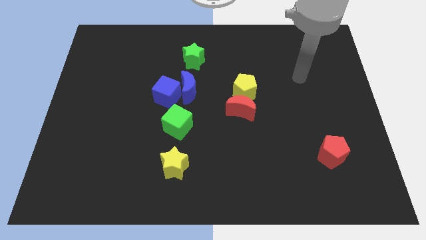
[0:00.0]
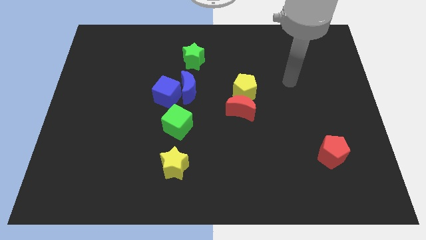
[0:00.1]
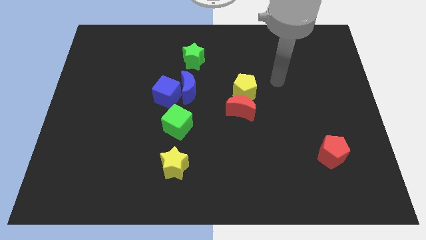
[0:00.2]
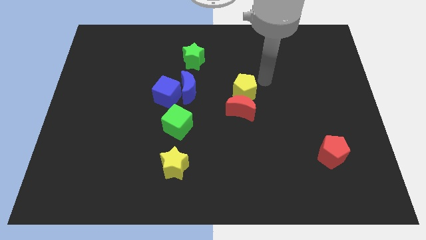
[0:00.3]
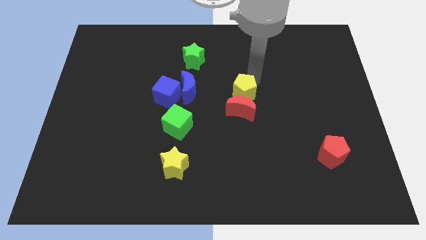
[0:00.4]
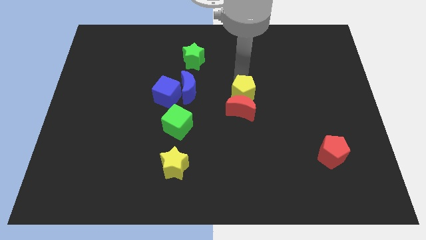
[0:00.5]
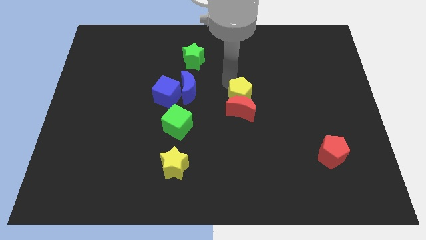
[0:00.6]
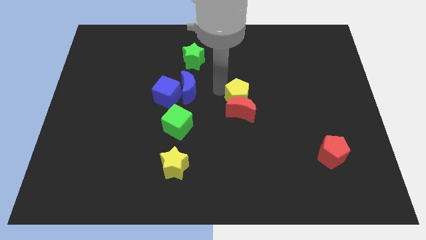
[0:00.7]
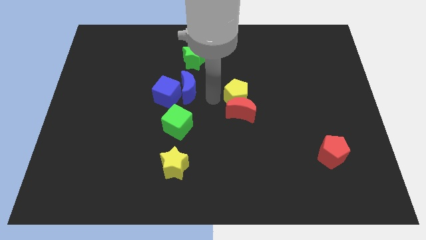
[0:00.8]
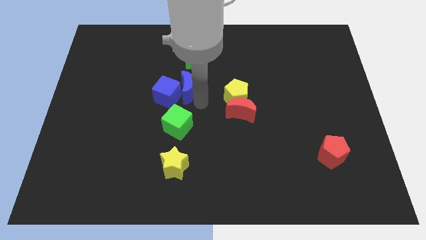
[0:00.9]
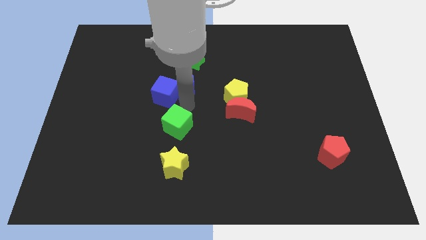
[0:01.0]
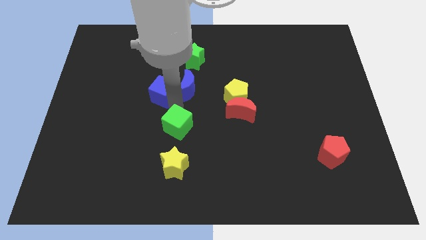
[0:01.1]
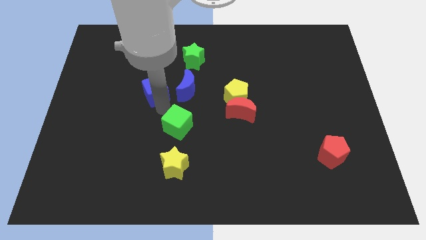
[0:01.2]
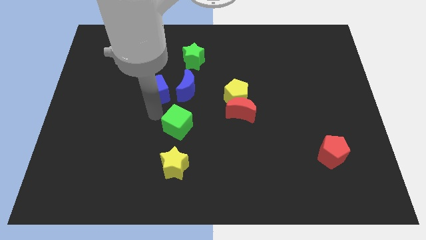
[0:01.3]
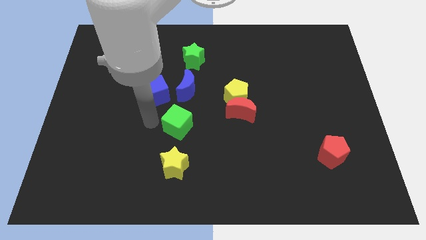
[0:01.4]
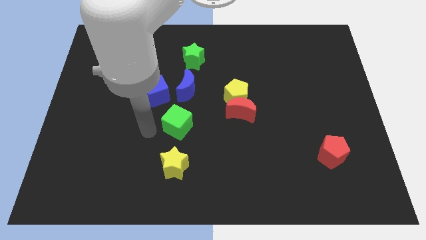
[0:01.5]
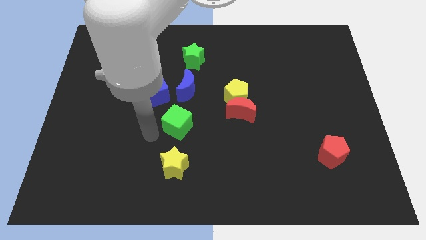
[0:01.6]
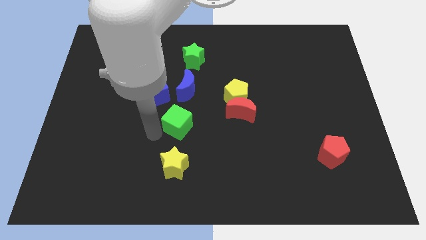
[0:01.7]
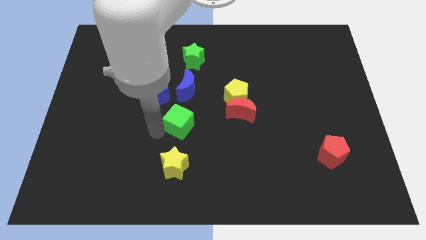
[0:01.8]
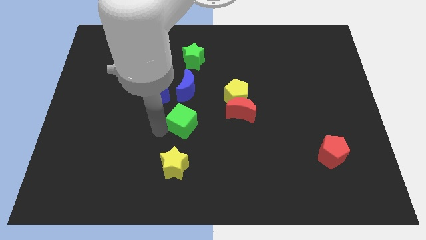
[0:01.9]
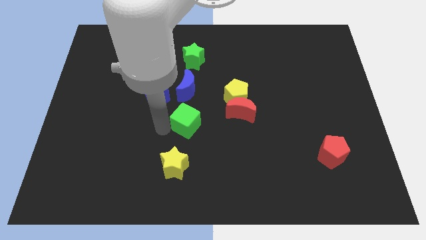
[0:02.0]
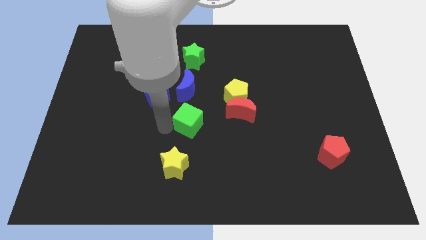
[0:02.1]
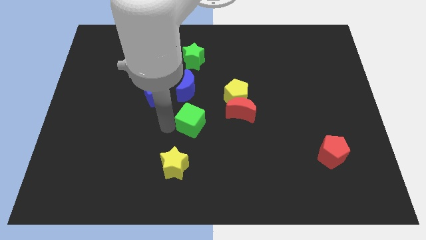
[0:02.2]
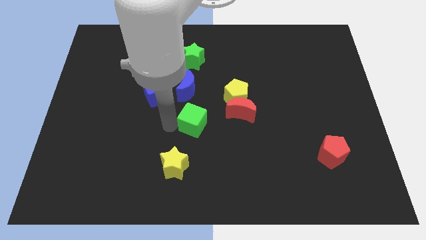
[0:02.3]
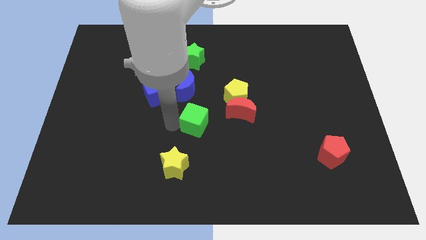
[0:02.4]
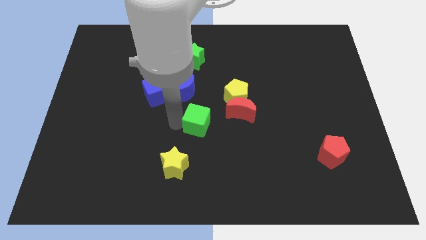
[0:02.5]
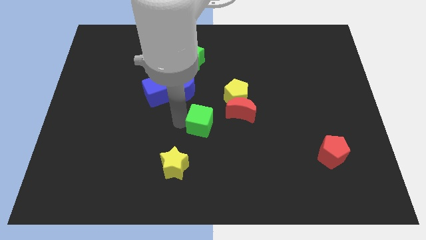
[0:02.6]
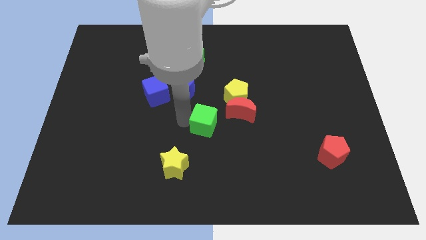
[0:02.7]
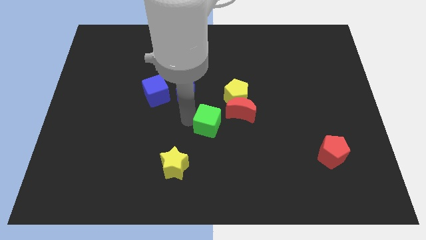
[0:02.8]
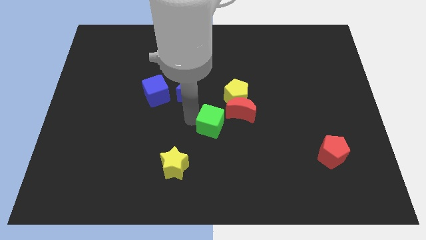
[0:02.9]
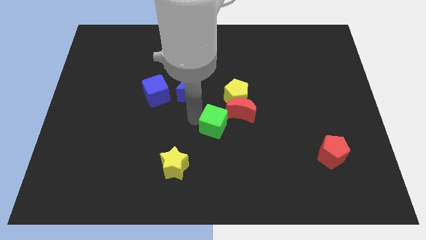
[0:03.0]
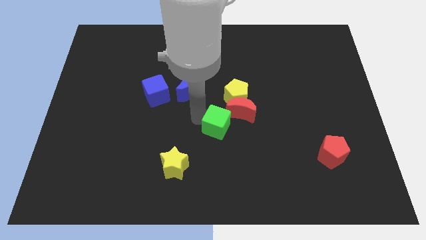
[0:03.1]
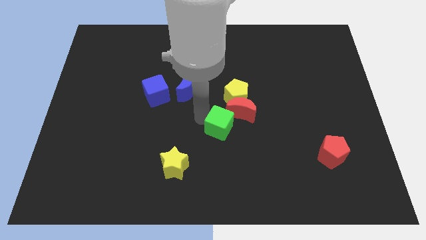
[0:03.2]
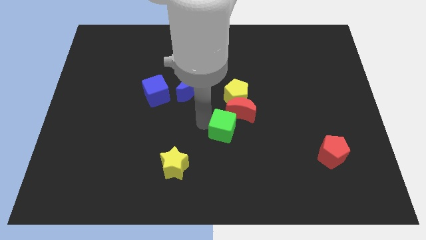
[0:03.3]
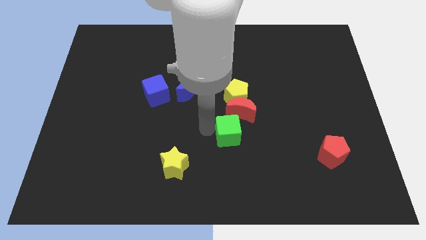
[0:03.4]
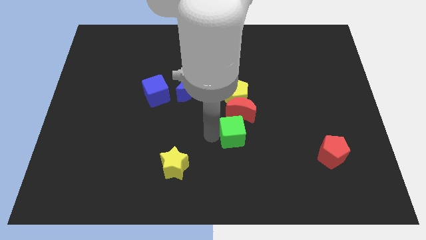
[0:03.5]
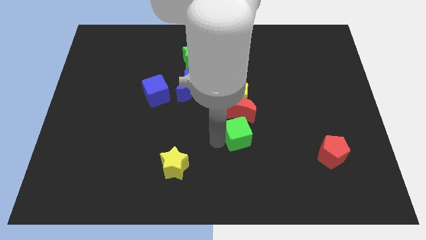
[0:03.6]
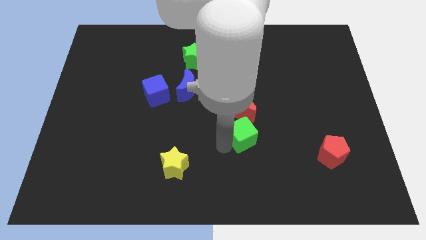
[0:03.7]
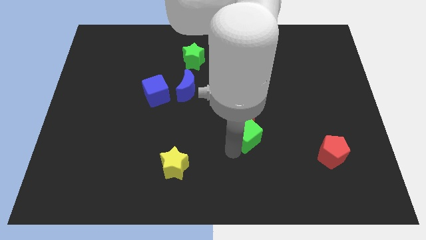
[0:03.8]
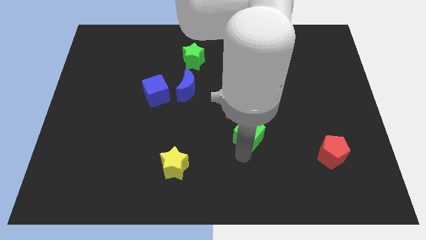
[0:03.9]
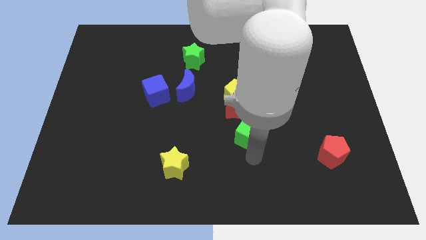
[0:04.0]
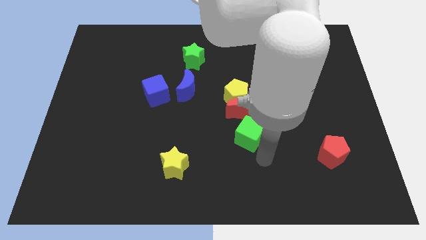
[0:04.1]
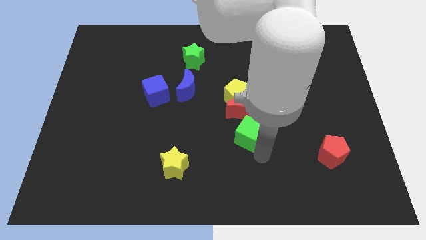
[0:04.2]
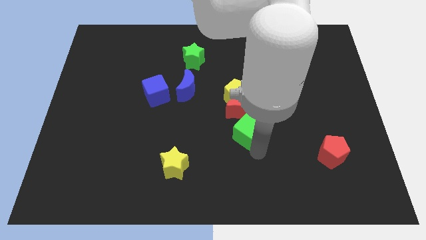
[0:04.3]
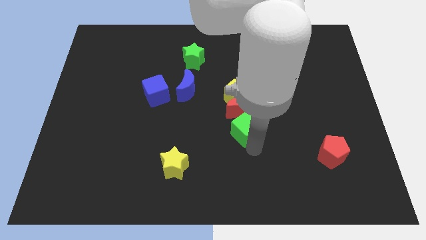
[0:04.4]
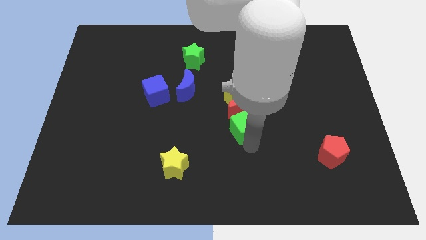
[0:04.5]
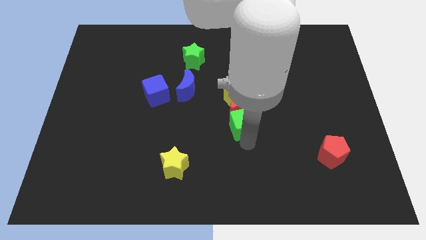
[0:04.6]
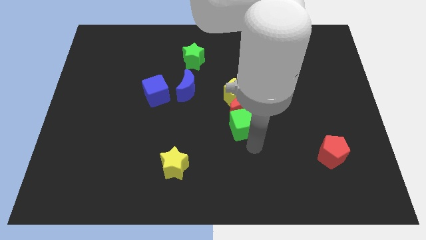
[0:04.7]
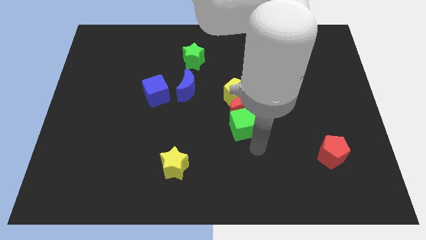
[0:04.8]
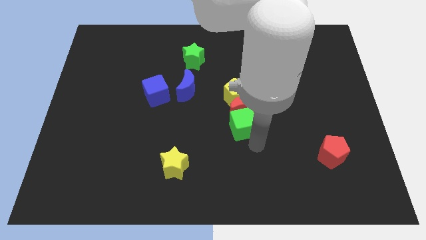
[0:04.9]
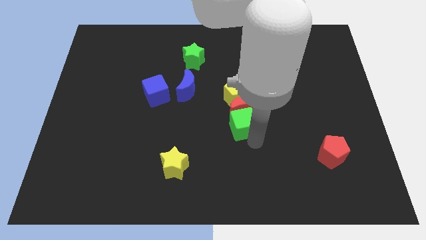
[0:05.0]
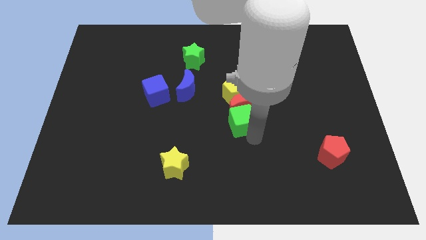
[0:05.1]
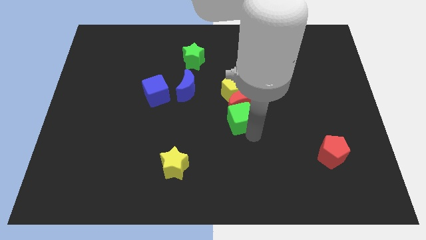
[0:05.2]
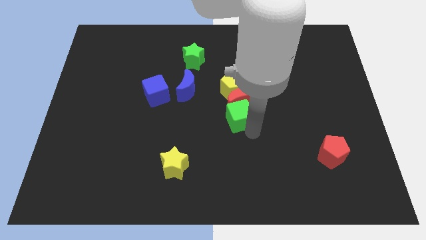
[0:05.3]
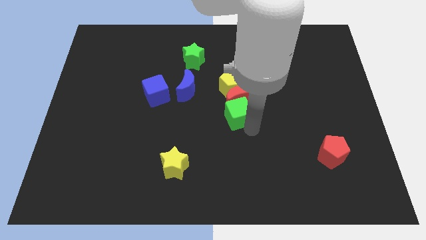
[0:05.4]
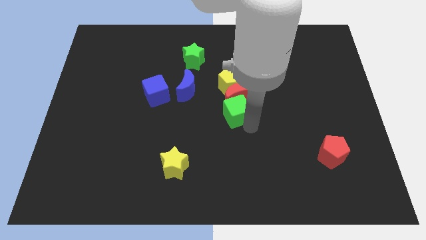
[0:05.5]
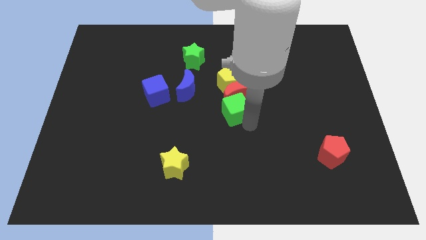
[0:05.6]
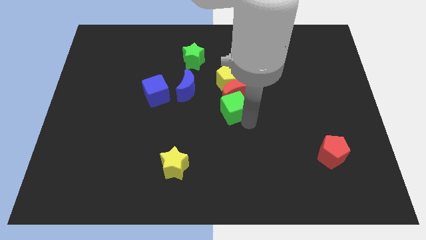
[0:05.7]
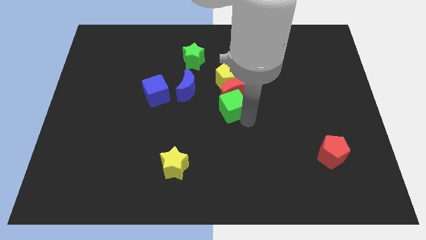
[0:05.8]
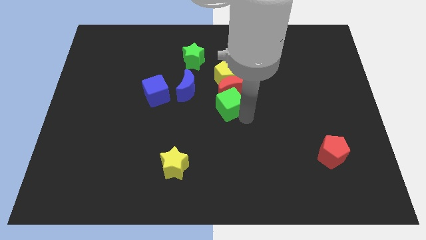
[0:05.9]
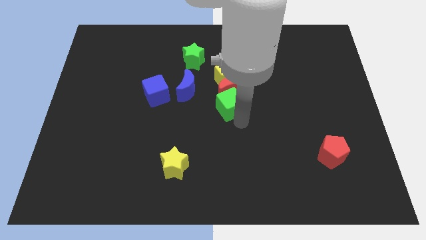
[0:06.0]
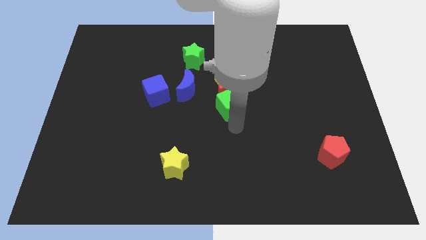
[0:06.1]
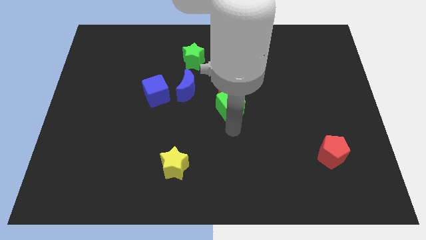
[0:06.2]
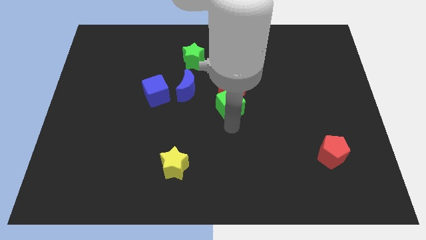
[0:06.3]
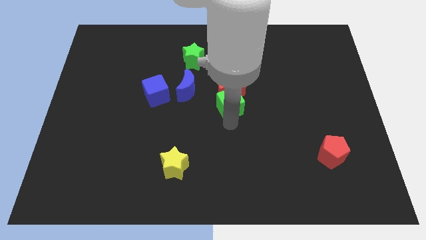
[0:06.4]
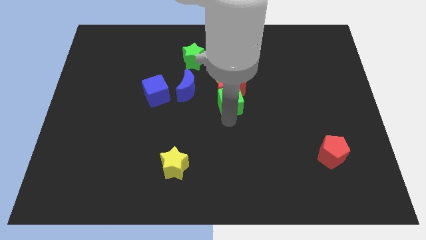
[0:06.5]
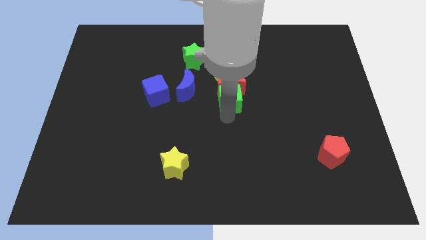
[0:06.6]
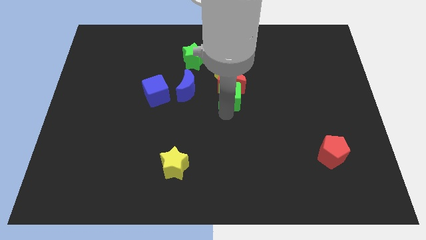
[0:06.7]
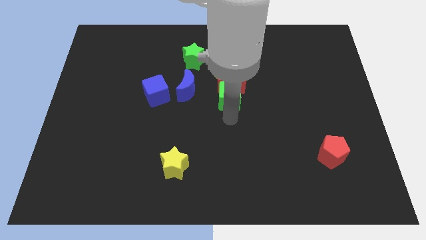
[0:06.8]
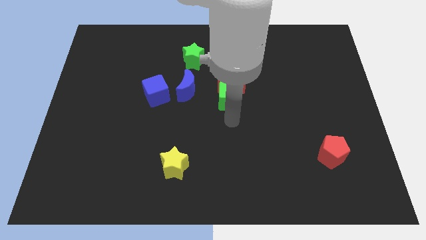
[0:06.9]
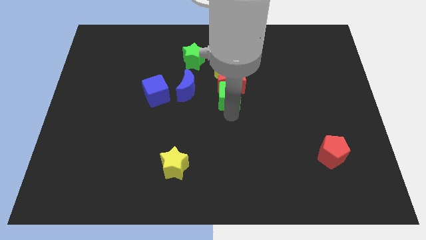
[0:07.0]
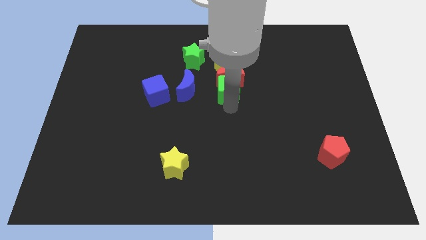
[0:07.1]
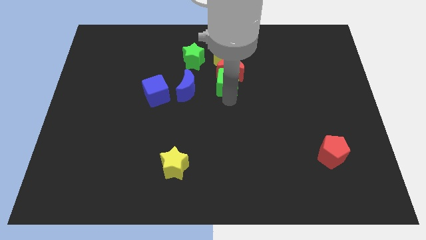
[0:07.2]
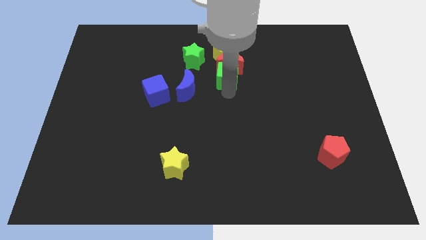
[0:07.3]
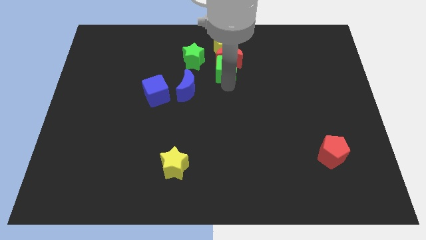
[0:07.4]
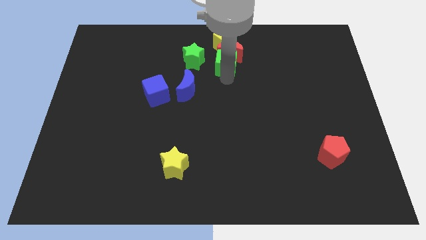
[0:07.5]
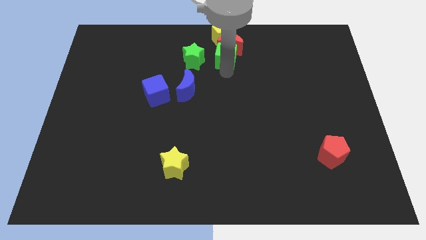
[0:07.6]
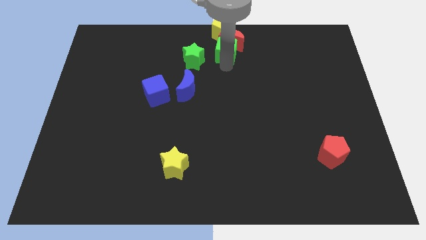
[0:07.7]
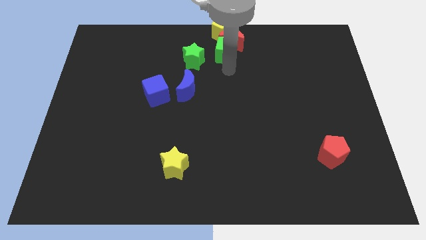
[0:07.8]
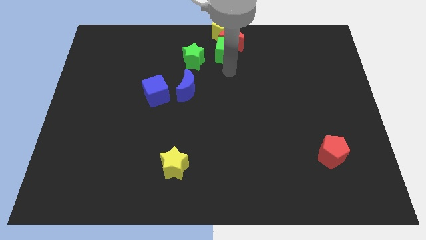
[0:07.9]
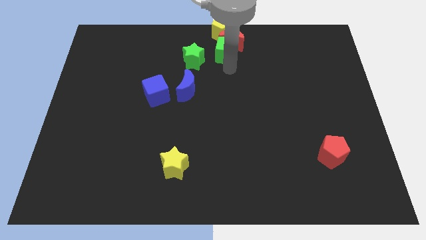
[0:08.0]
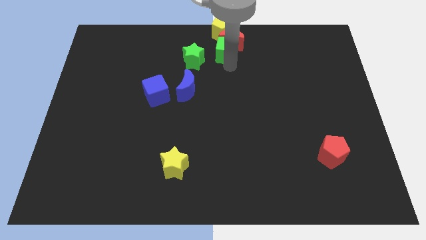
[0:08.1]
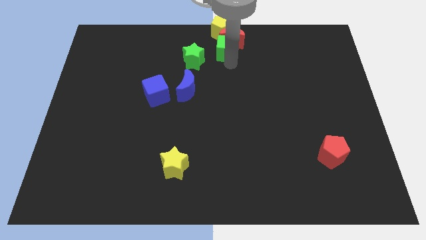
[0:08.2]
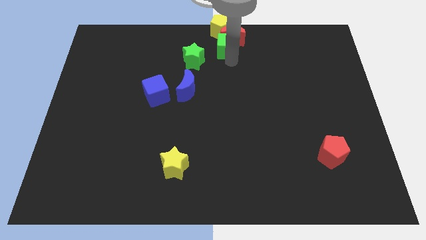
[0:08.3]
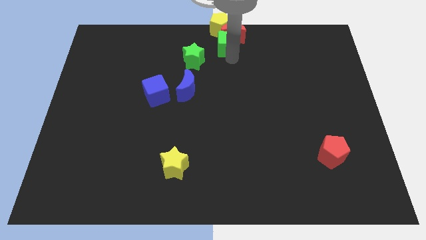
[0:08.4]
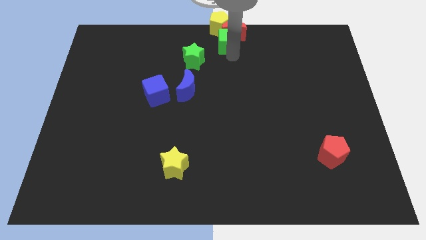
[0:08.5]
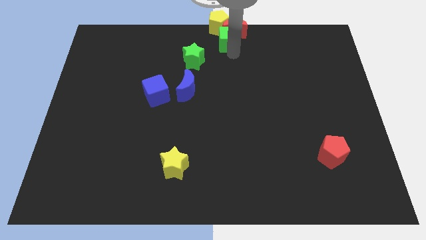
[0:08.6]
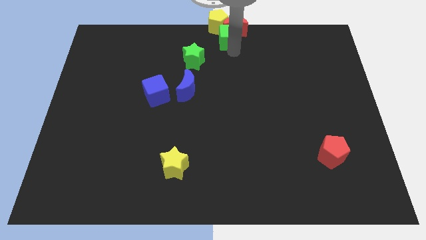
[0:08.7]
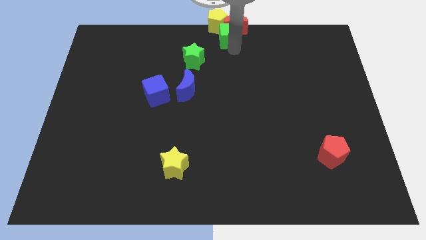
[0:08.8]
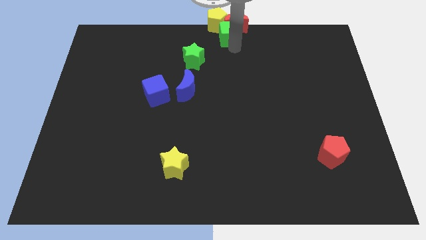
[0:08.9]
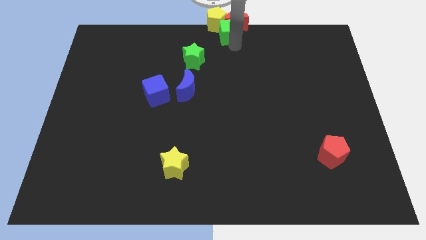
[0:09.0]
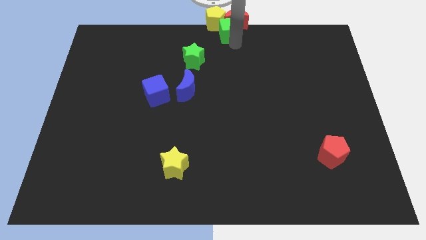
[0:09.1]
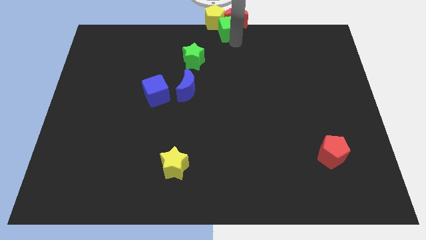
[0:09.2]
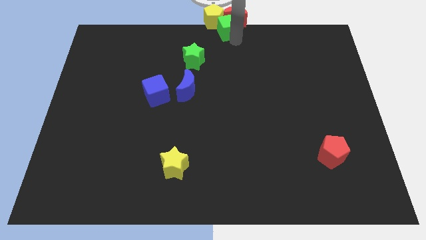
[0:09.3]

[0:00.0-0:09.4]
move the green cube close to the yellow pentagon
